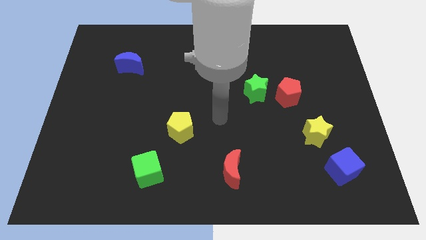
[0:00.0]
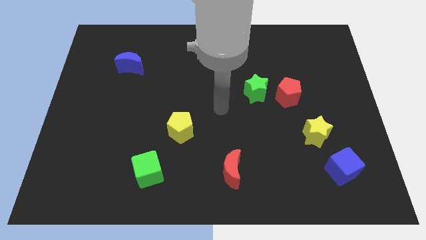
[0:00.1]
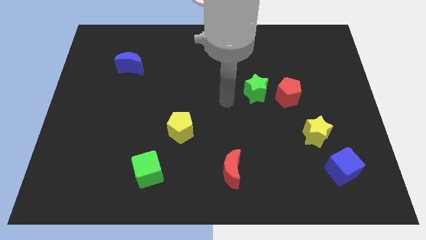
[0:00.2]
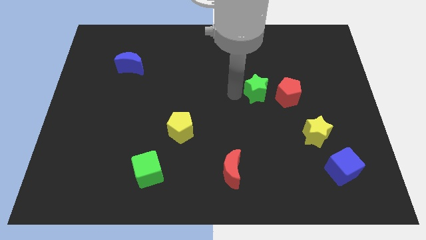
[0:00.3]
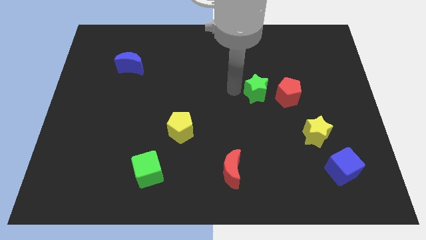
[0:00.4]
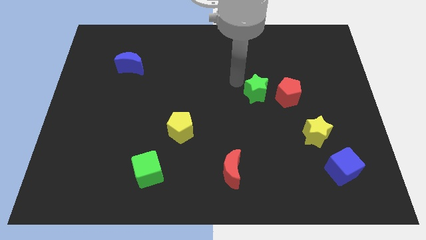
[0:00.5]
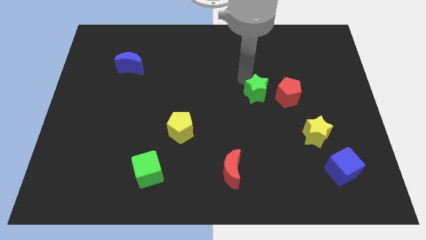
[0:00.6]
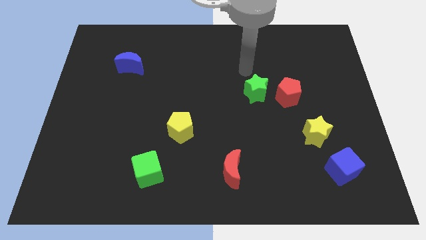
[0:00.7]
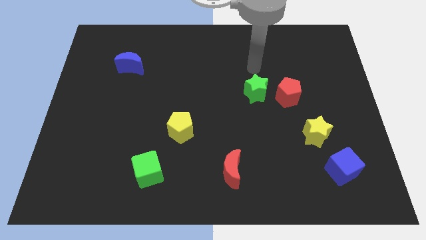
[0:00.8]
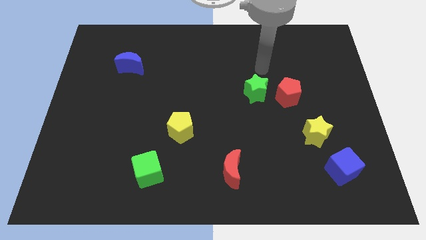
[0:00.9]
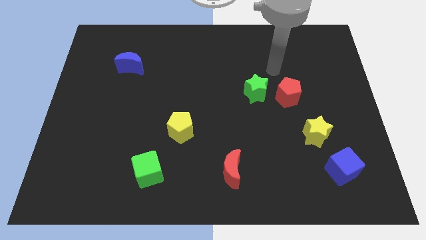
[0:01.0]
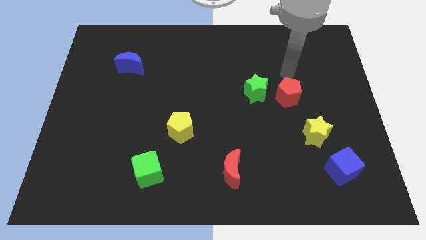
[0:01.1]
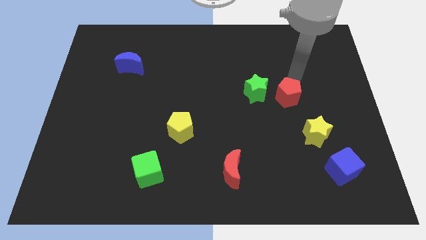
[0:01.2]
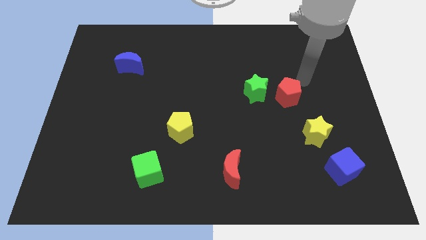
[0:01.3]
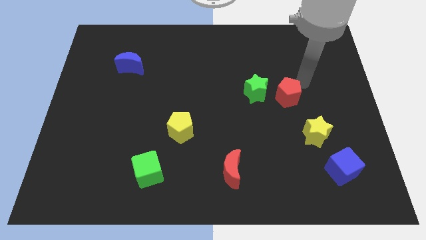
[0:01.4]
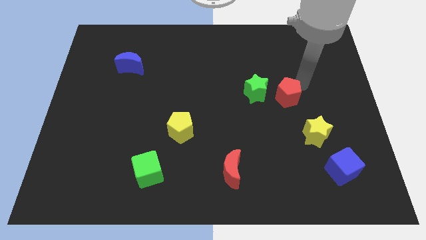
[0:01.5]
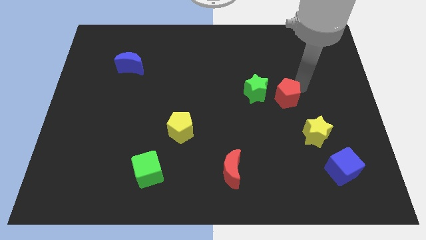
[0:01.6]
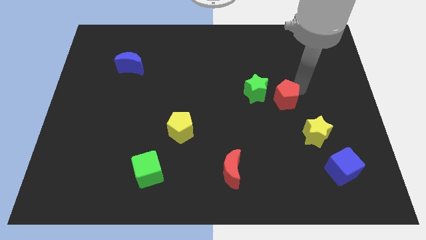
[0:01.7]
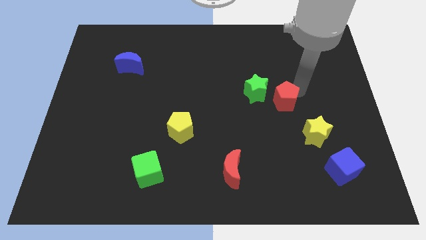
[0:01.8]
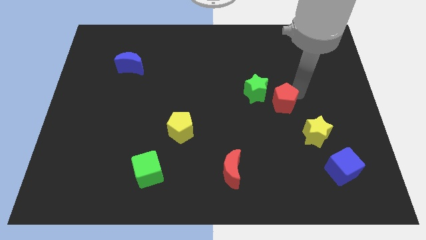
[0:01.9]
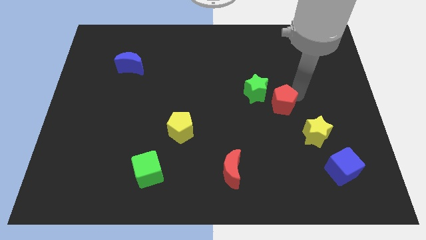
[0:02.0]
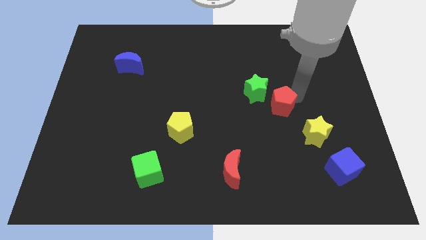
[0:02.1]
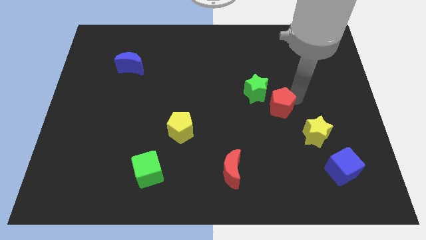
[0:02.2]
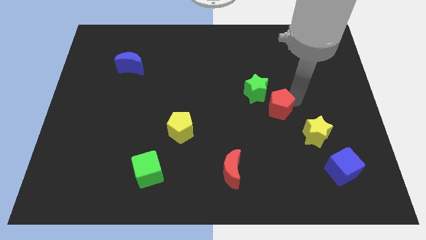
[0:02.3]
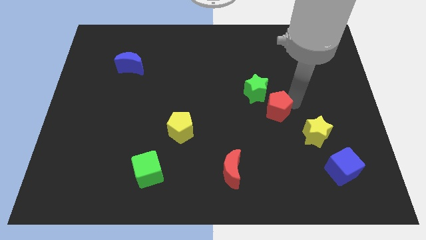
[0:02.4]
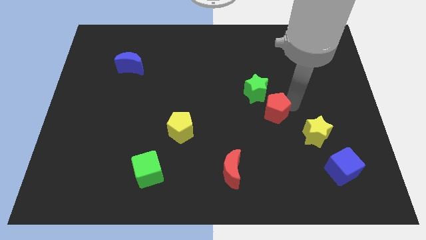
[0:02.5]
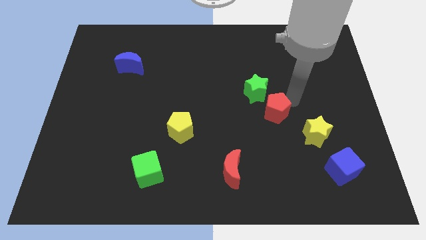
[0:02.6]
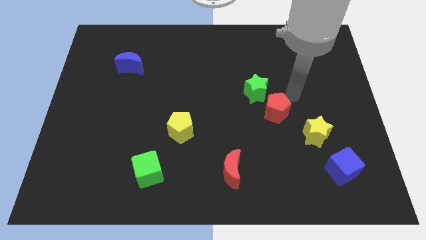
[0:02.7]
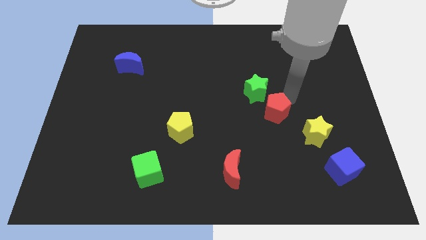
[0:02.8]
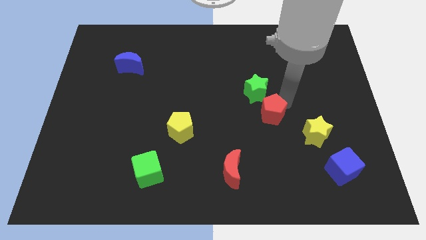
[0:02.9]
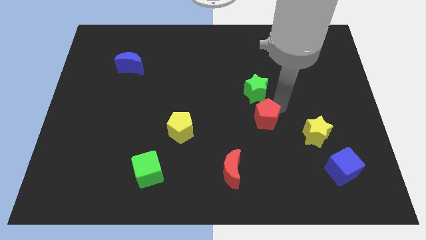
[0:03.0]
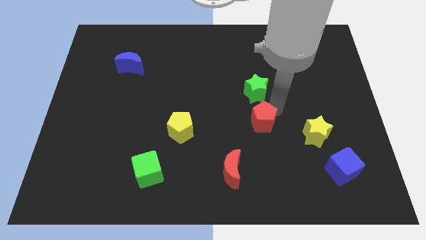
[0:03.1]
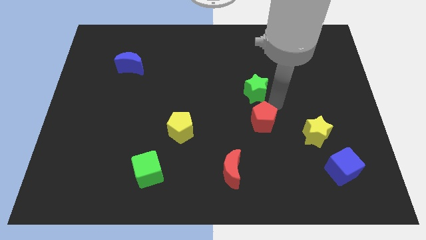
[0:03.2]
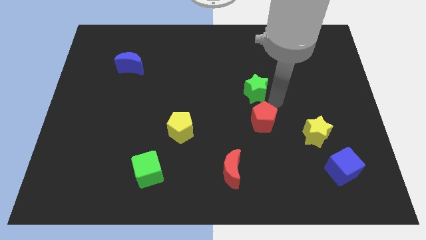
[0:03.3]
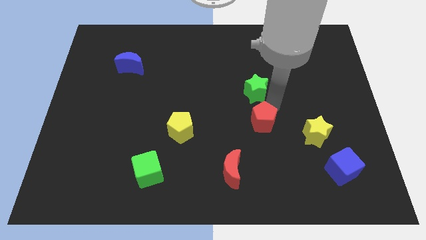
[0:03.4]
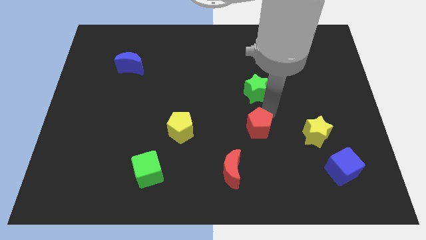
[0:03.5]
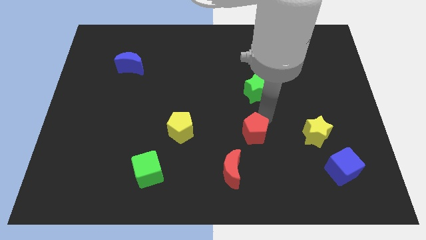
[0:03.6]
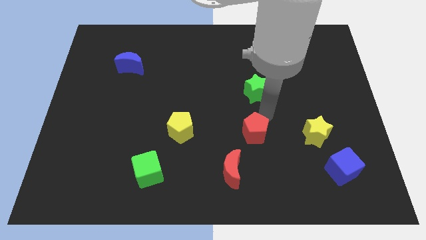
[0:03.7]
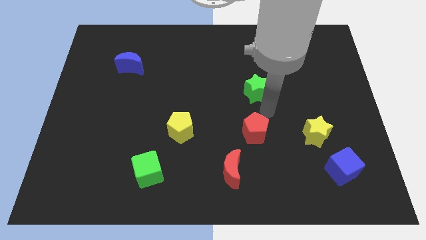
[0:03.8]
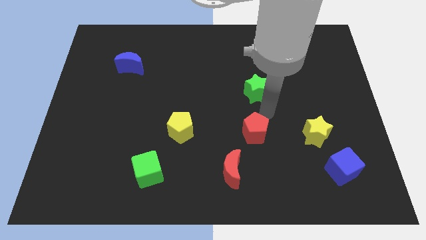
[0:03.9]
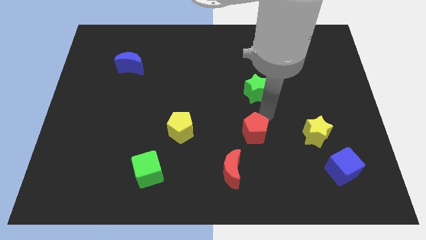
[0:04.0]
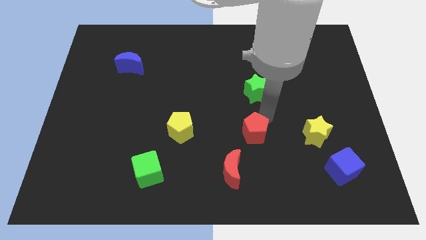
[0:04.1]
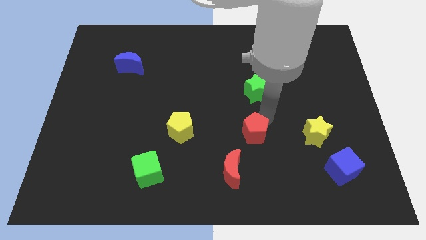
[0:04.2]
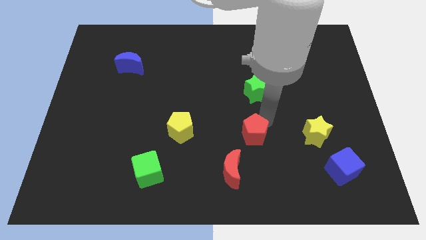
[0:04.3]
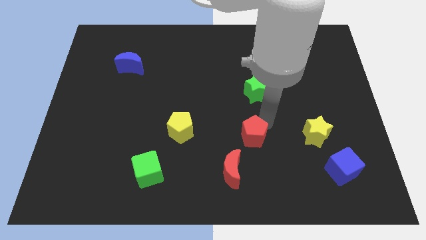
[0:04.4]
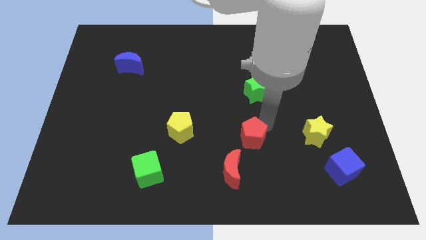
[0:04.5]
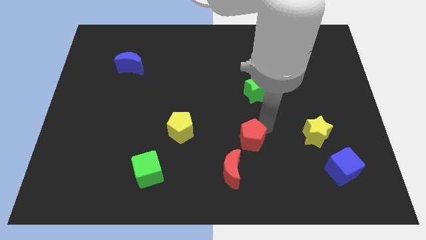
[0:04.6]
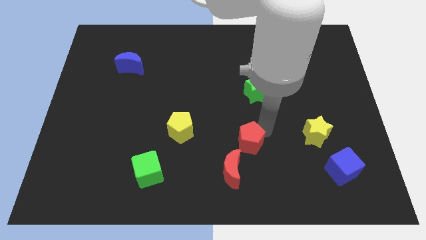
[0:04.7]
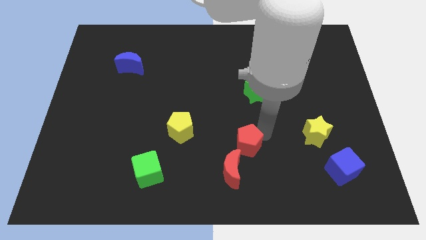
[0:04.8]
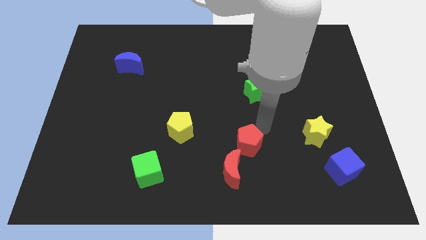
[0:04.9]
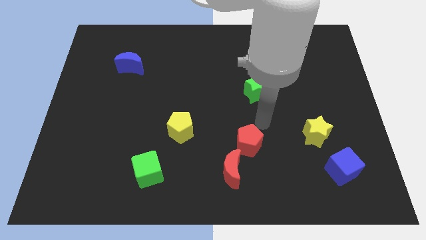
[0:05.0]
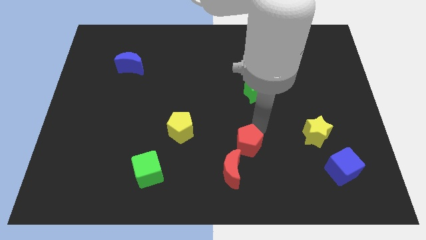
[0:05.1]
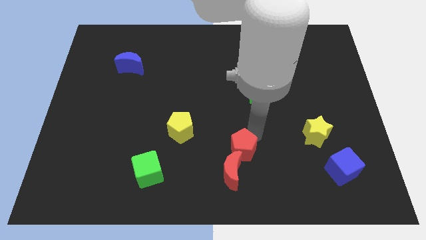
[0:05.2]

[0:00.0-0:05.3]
move the red pentagon close to the red moon

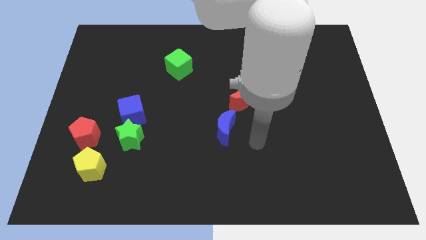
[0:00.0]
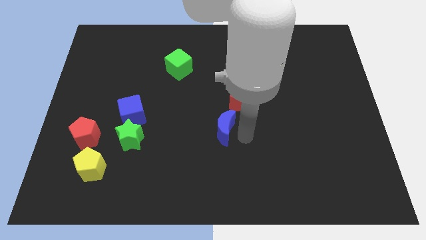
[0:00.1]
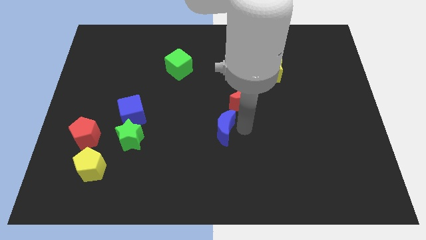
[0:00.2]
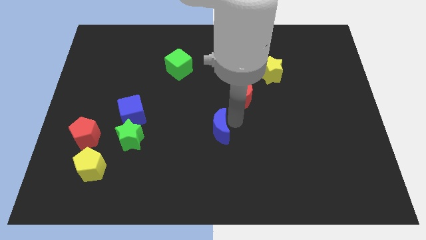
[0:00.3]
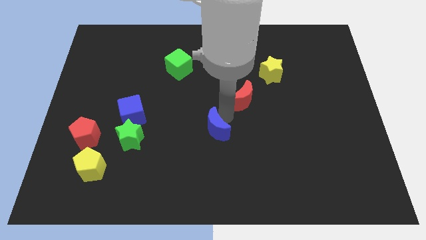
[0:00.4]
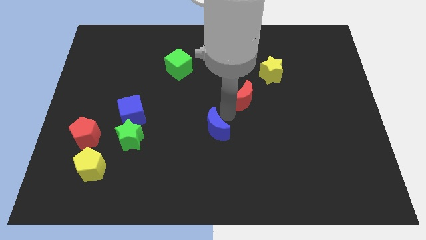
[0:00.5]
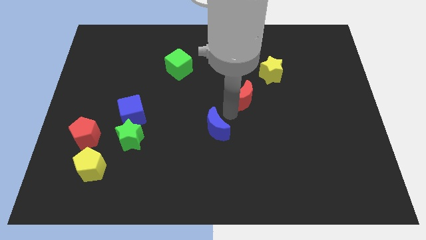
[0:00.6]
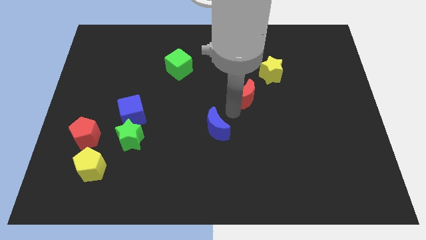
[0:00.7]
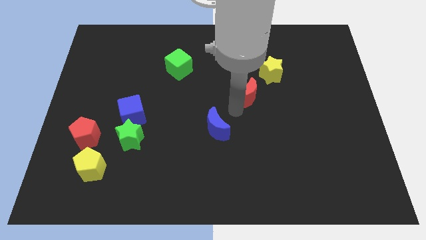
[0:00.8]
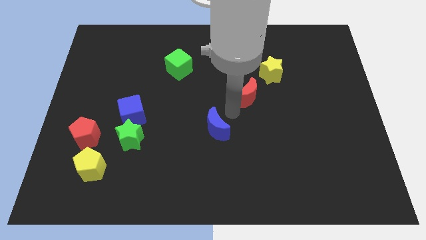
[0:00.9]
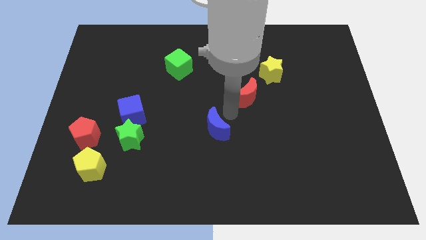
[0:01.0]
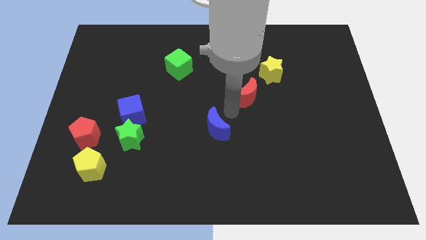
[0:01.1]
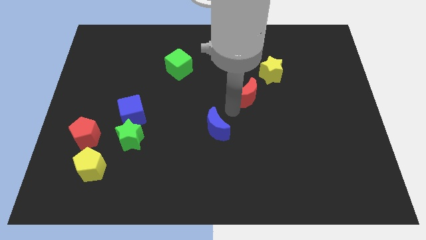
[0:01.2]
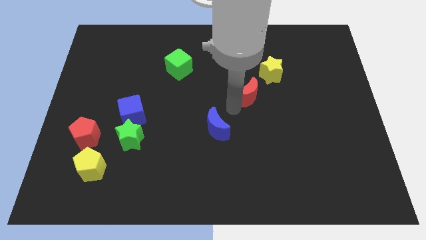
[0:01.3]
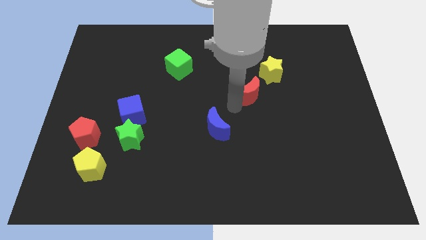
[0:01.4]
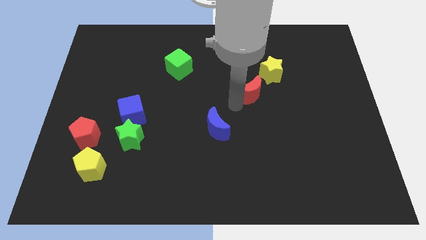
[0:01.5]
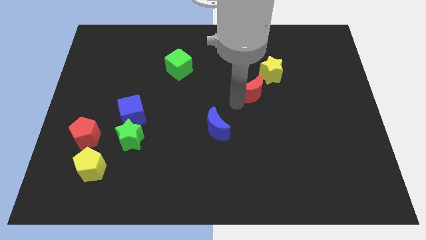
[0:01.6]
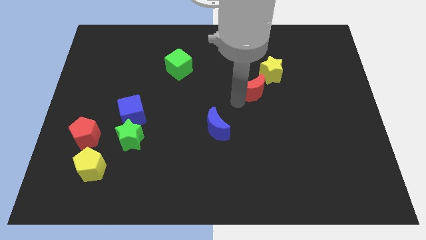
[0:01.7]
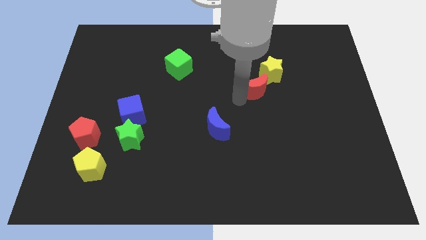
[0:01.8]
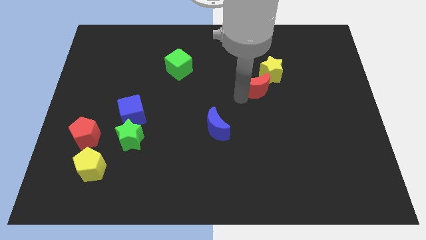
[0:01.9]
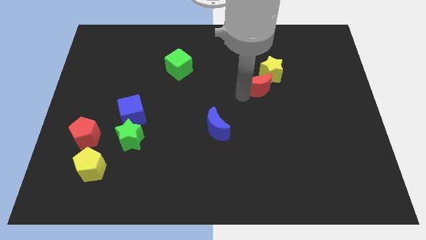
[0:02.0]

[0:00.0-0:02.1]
move the red moon to the yellow star

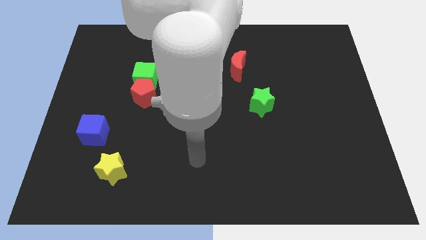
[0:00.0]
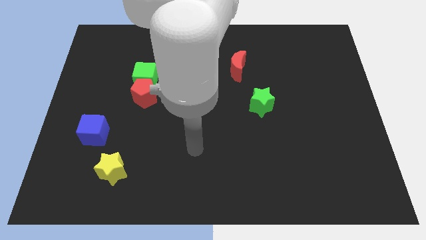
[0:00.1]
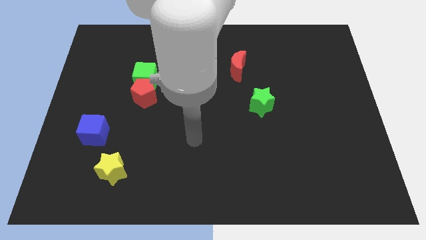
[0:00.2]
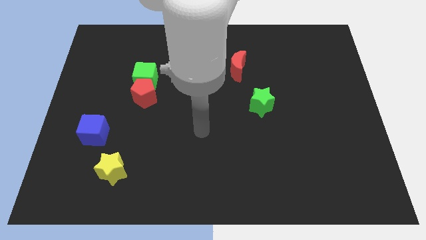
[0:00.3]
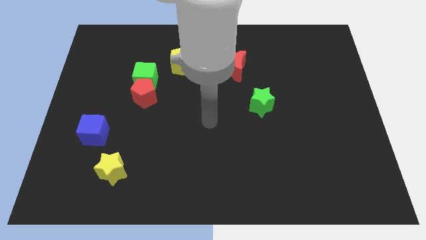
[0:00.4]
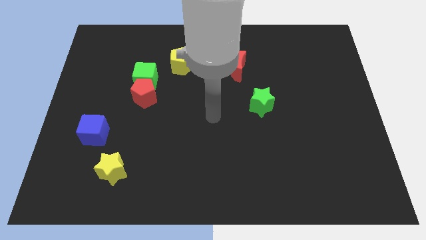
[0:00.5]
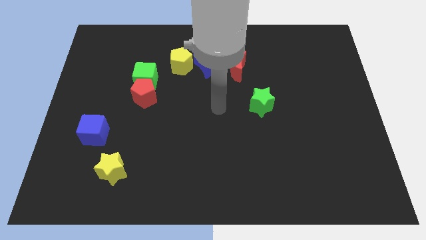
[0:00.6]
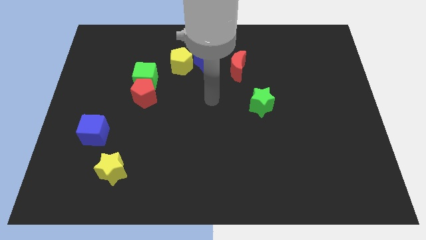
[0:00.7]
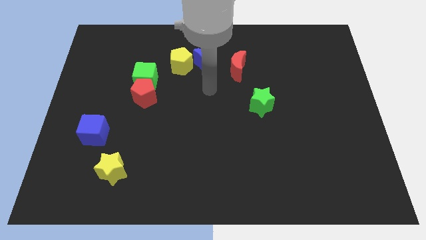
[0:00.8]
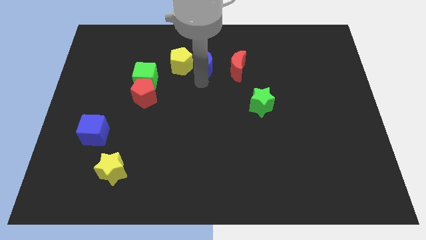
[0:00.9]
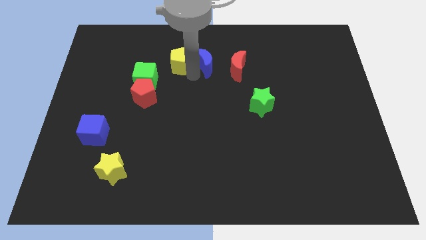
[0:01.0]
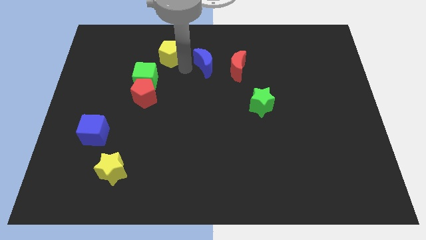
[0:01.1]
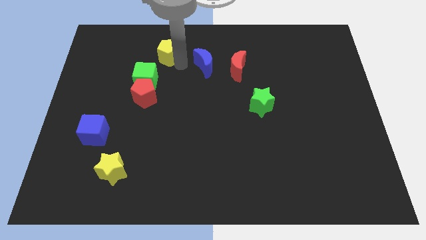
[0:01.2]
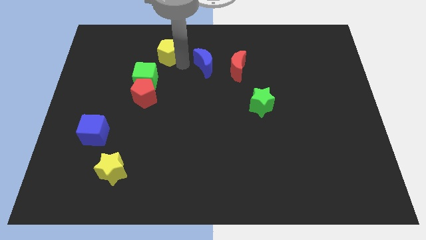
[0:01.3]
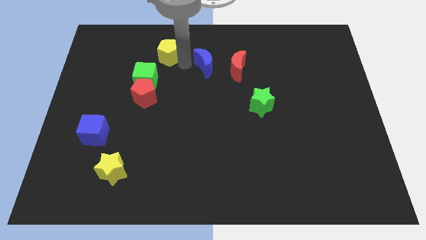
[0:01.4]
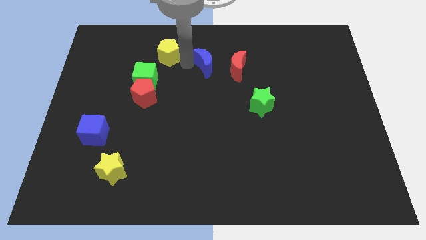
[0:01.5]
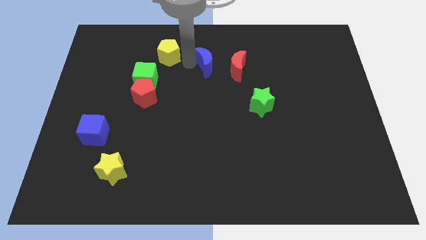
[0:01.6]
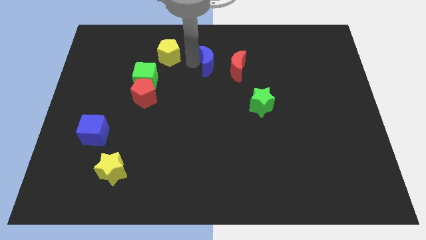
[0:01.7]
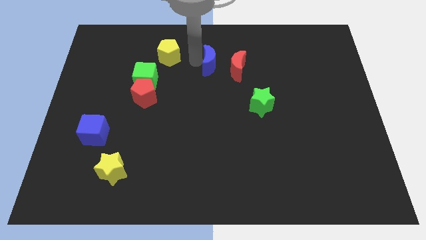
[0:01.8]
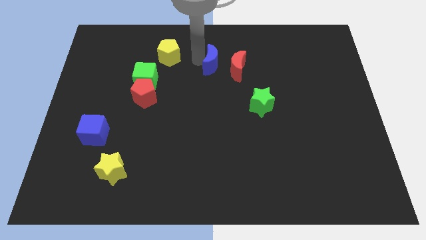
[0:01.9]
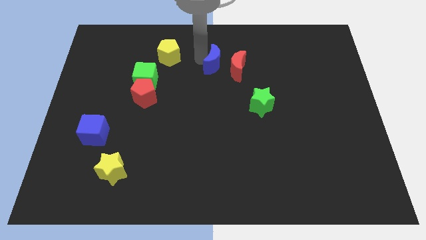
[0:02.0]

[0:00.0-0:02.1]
push the blue moon next to the red moon
